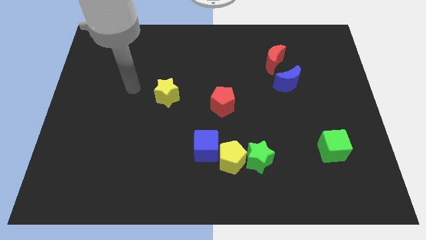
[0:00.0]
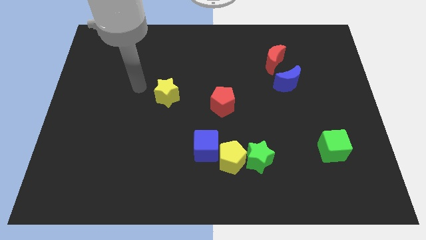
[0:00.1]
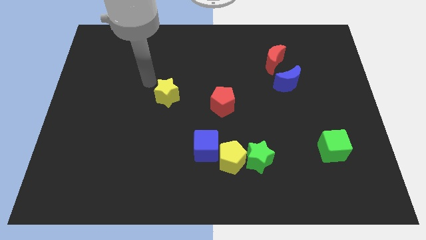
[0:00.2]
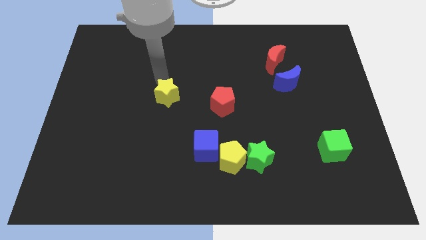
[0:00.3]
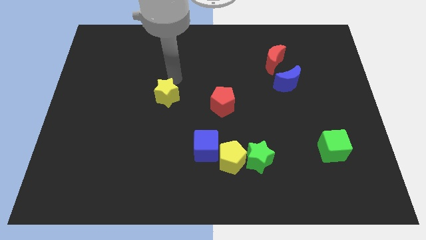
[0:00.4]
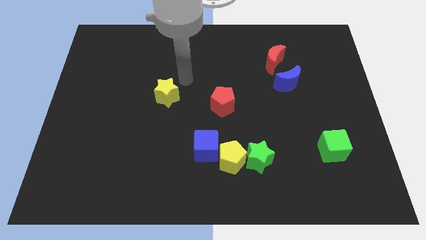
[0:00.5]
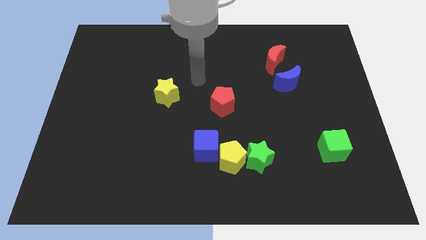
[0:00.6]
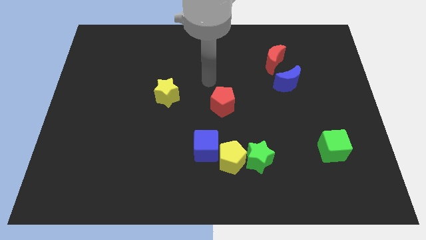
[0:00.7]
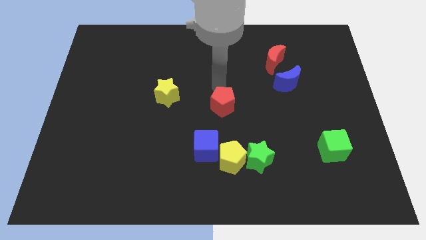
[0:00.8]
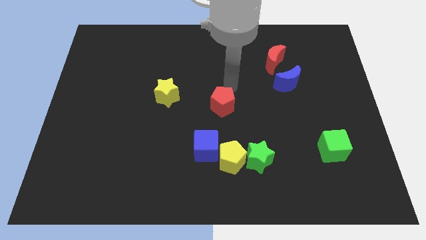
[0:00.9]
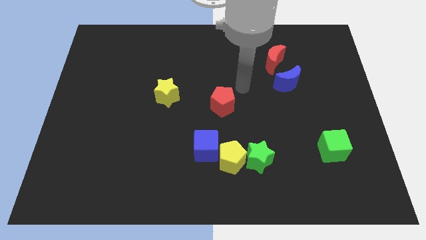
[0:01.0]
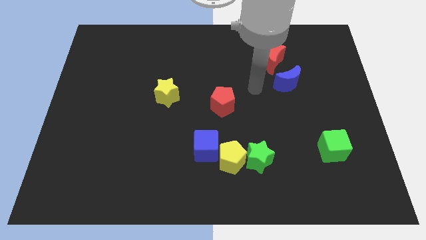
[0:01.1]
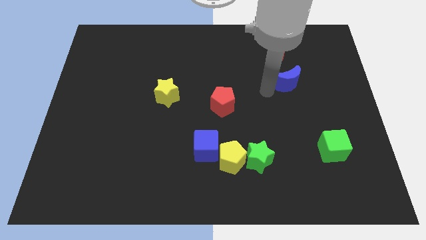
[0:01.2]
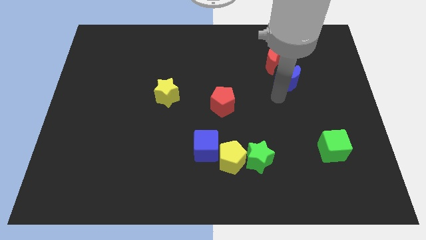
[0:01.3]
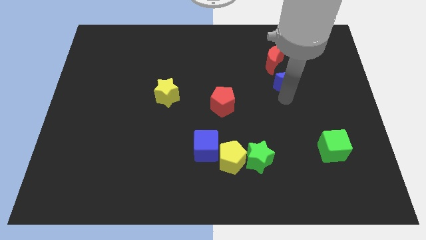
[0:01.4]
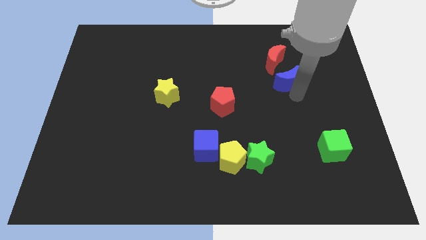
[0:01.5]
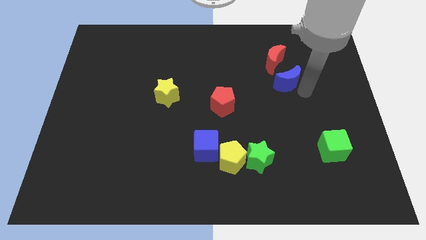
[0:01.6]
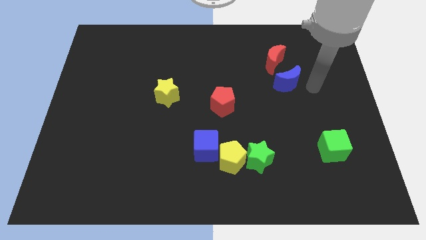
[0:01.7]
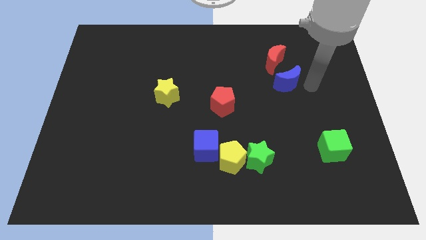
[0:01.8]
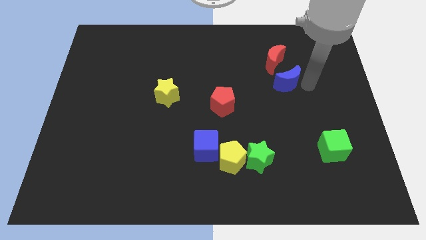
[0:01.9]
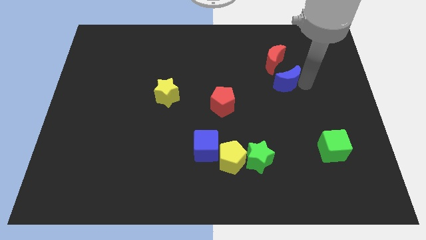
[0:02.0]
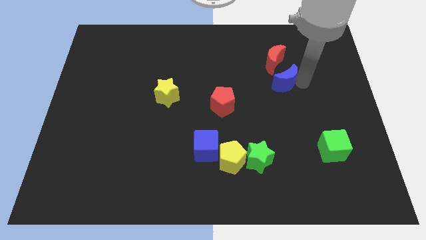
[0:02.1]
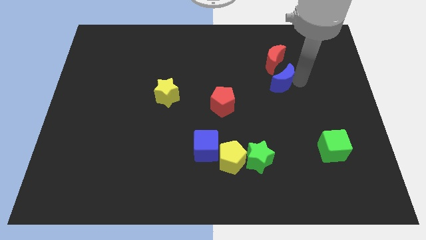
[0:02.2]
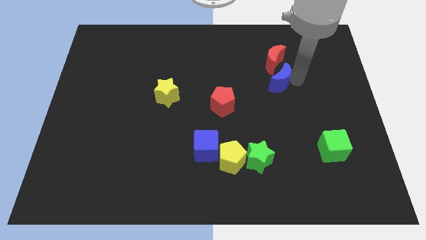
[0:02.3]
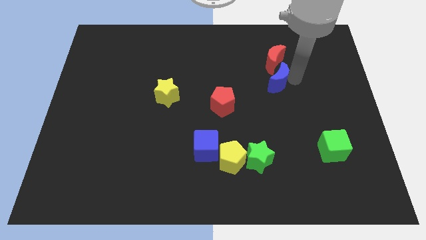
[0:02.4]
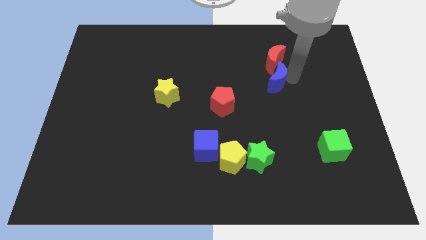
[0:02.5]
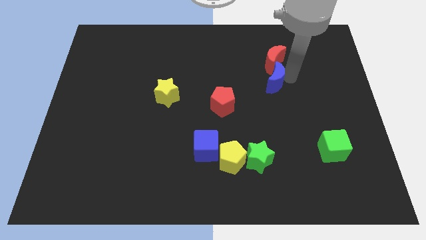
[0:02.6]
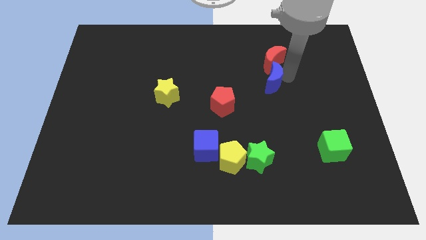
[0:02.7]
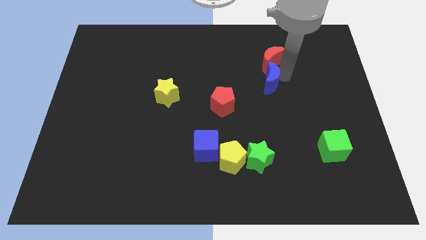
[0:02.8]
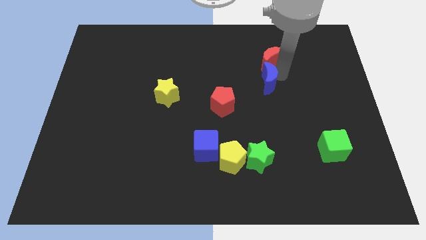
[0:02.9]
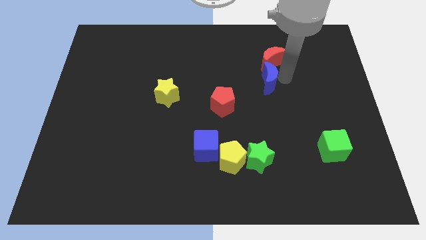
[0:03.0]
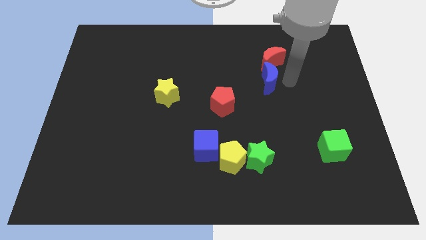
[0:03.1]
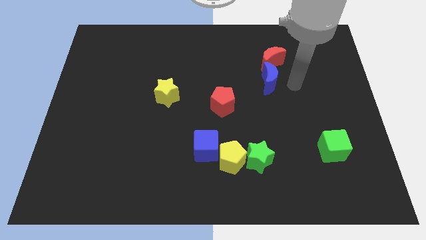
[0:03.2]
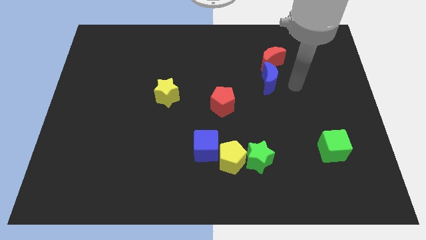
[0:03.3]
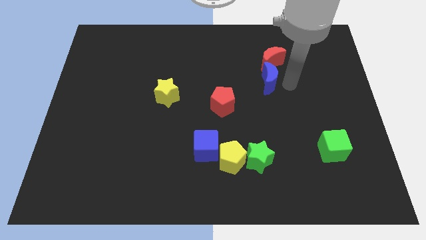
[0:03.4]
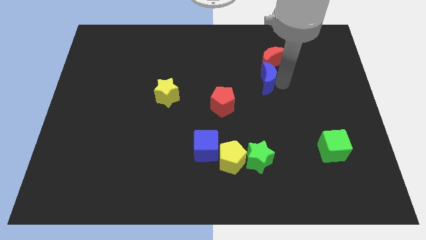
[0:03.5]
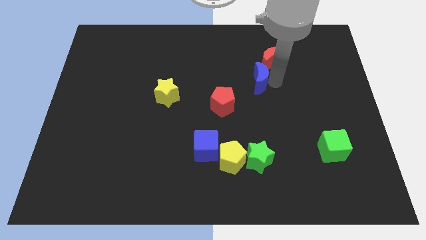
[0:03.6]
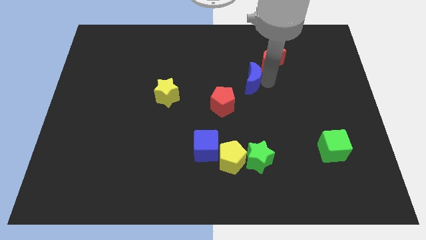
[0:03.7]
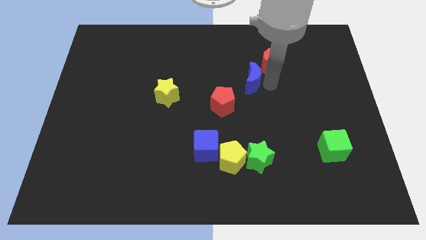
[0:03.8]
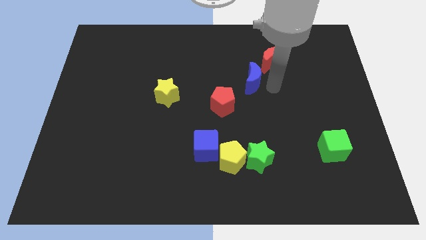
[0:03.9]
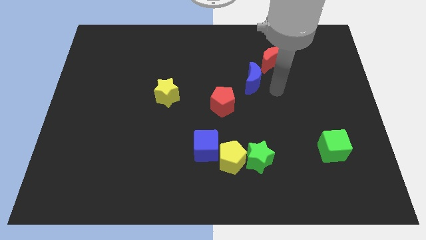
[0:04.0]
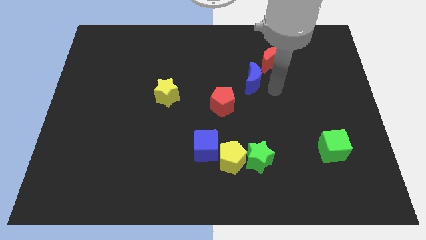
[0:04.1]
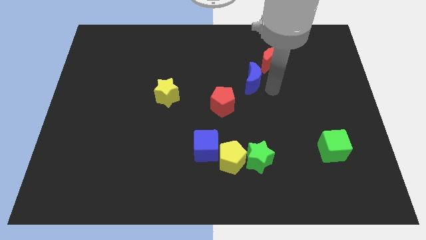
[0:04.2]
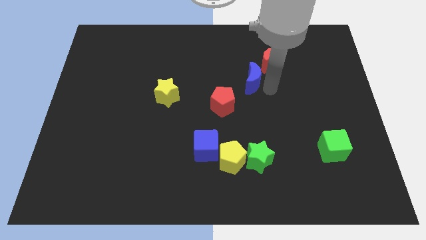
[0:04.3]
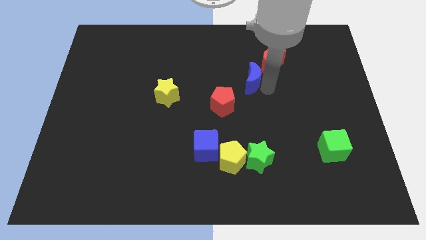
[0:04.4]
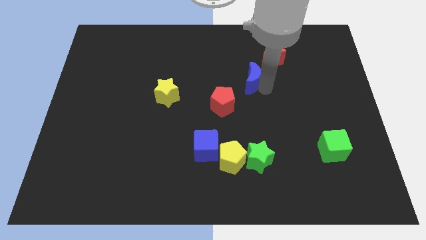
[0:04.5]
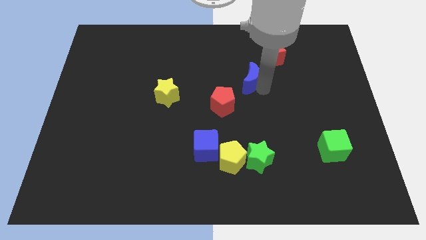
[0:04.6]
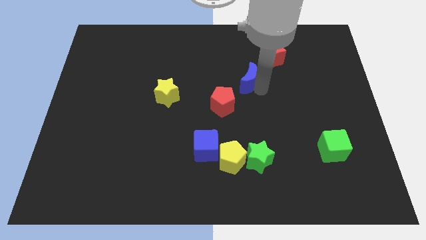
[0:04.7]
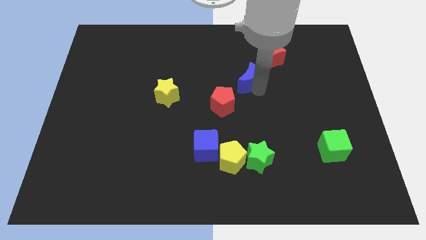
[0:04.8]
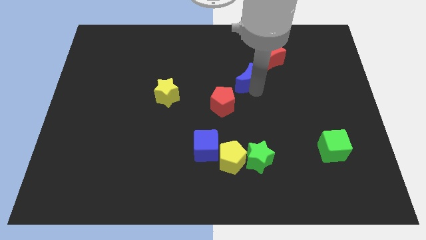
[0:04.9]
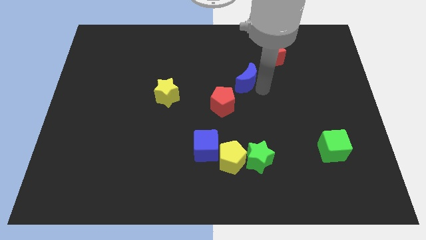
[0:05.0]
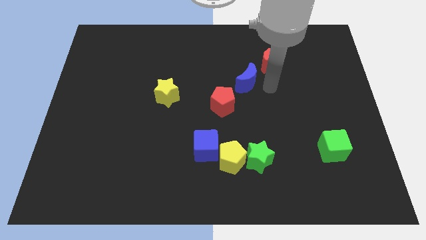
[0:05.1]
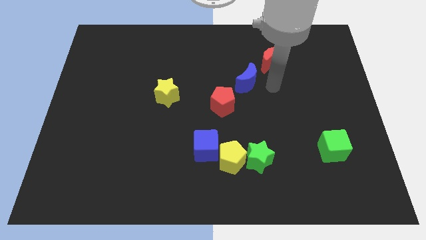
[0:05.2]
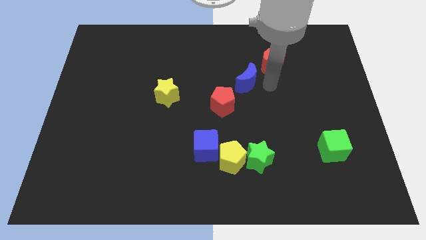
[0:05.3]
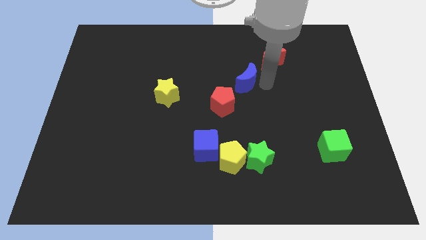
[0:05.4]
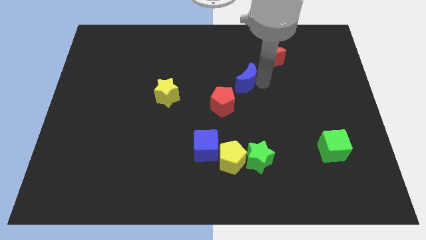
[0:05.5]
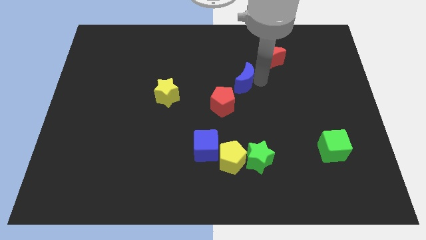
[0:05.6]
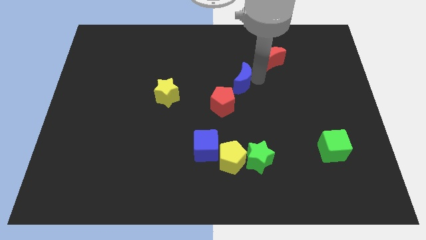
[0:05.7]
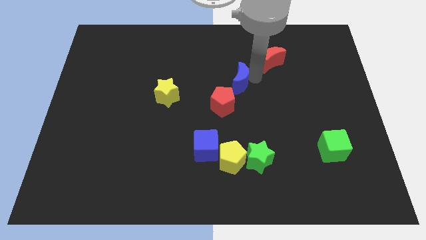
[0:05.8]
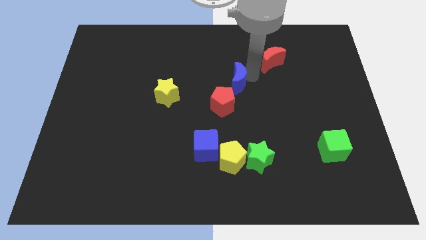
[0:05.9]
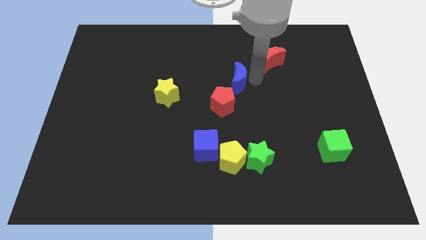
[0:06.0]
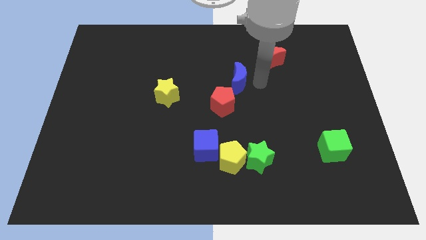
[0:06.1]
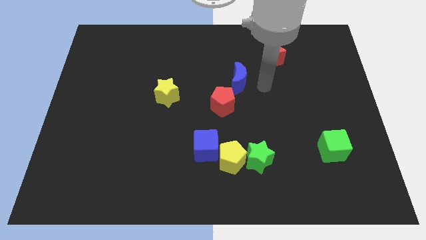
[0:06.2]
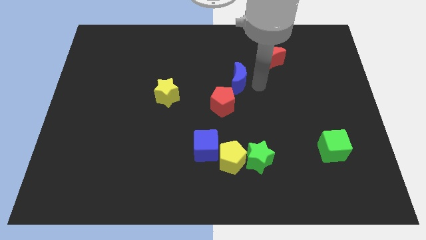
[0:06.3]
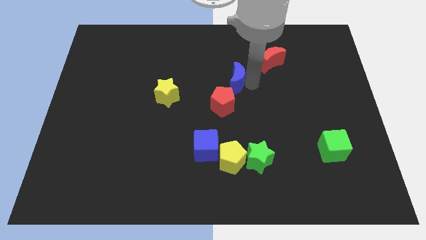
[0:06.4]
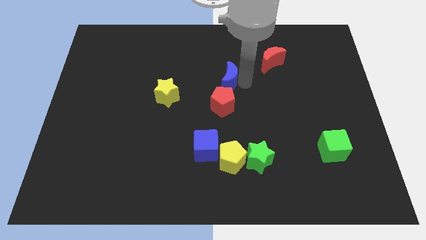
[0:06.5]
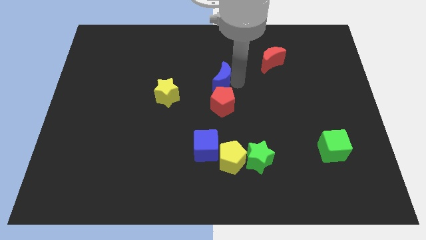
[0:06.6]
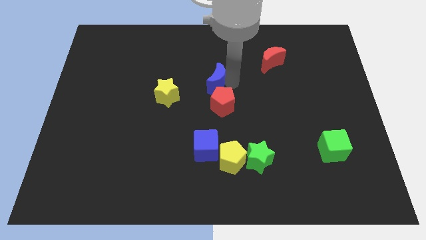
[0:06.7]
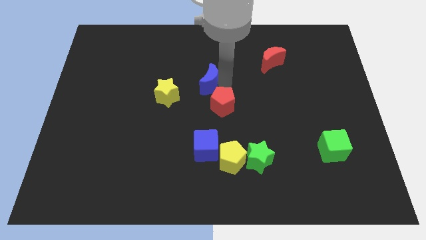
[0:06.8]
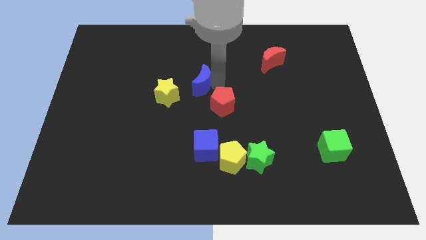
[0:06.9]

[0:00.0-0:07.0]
push the blue moon to the left

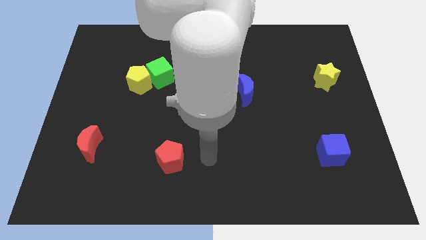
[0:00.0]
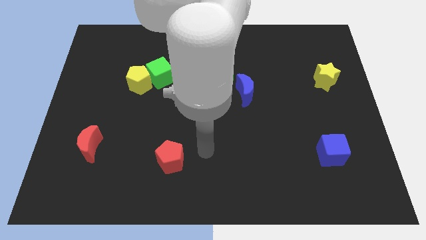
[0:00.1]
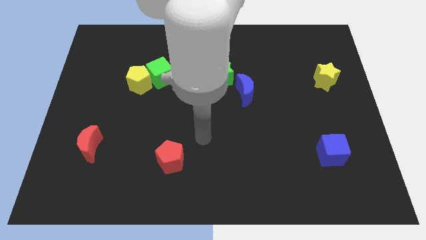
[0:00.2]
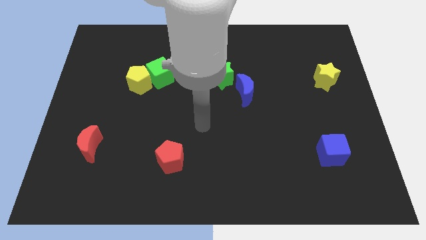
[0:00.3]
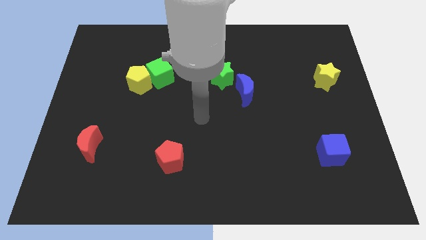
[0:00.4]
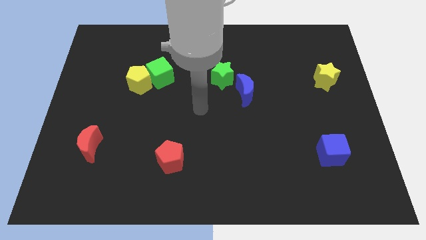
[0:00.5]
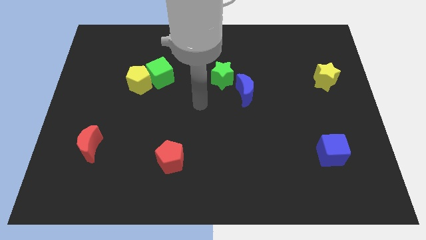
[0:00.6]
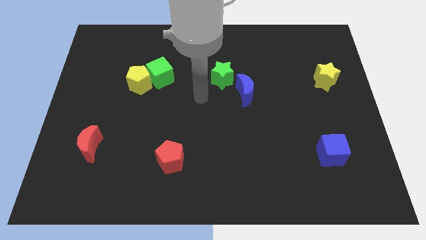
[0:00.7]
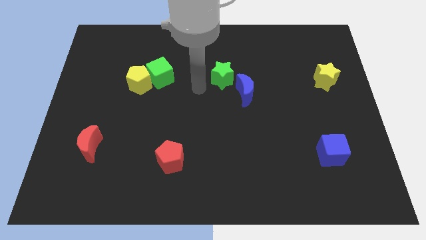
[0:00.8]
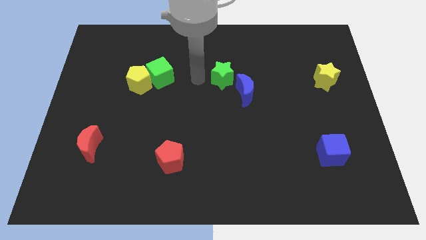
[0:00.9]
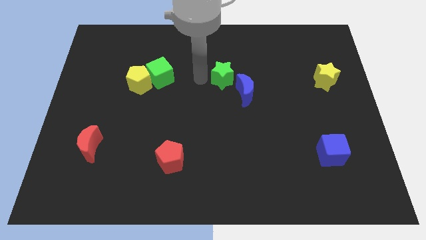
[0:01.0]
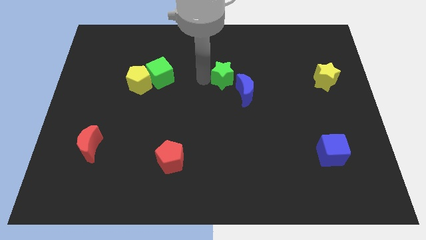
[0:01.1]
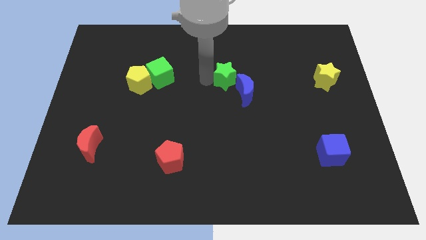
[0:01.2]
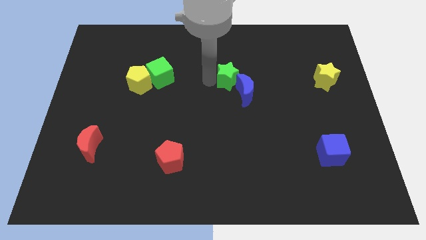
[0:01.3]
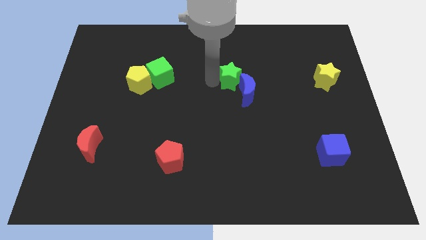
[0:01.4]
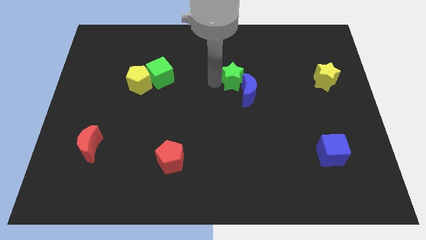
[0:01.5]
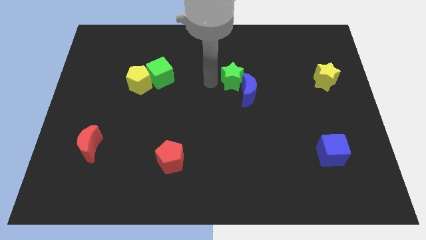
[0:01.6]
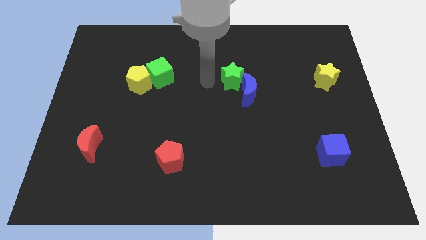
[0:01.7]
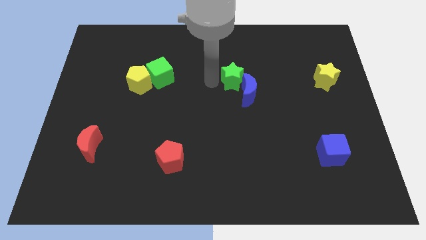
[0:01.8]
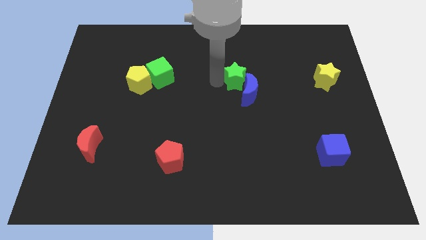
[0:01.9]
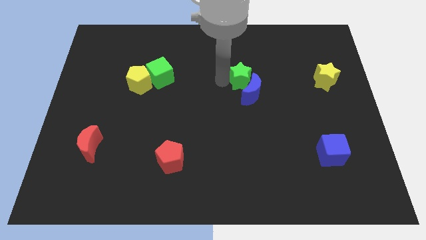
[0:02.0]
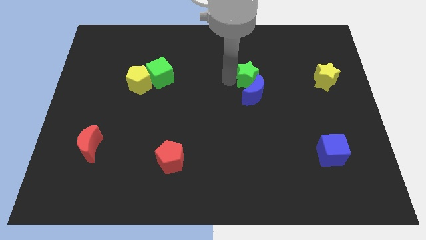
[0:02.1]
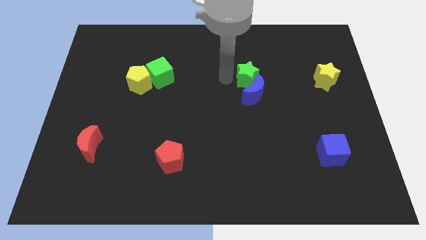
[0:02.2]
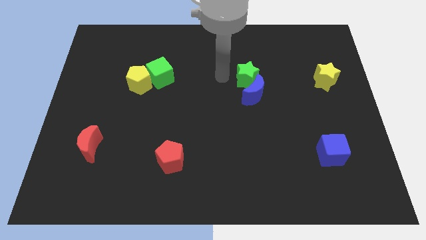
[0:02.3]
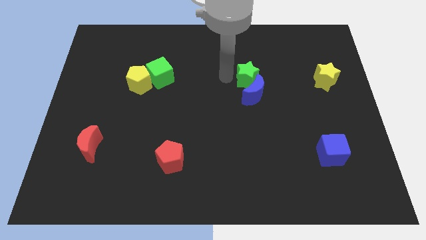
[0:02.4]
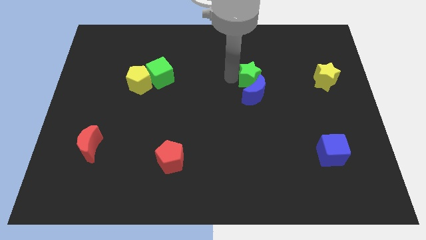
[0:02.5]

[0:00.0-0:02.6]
slightly move the green star right
